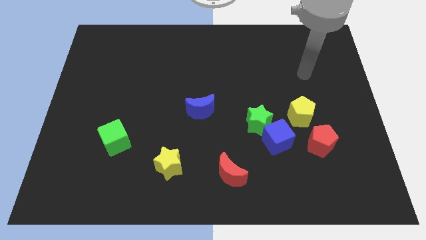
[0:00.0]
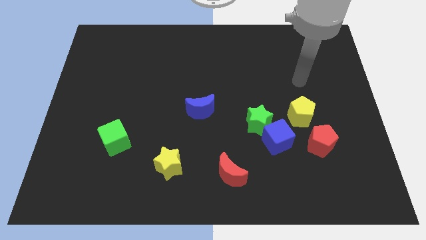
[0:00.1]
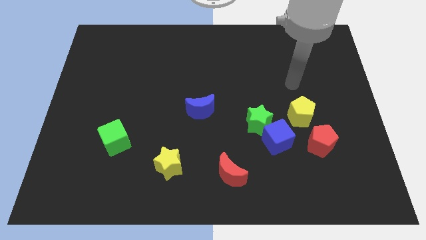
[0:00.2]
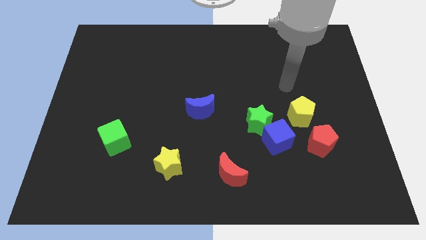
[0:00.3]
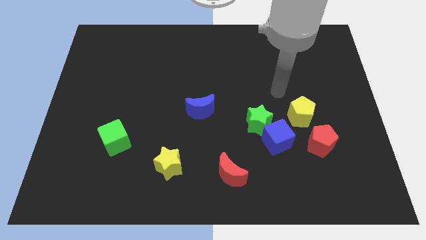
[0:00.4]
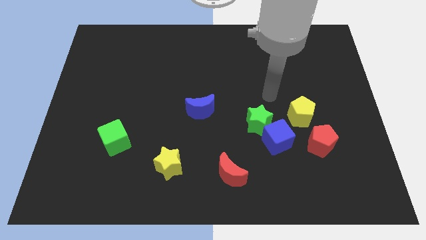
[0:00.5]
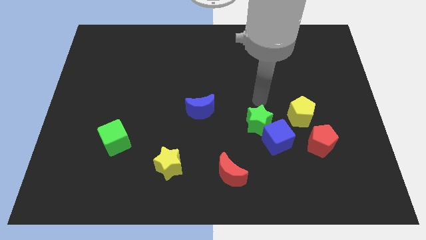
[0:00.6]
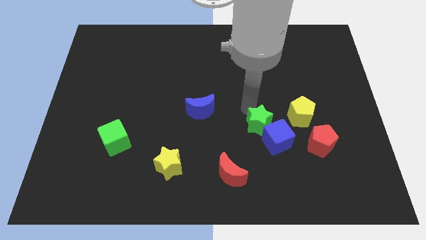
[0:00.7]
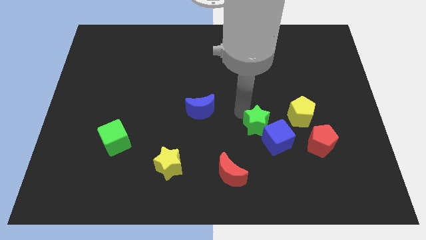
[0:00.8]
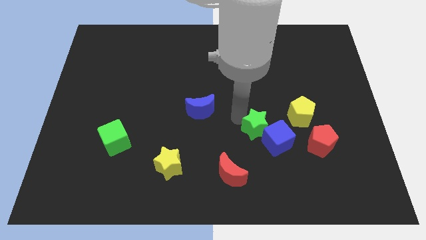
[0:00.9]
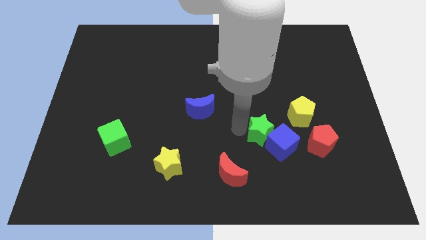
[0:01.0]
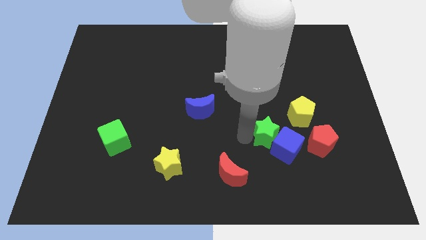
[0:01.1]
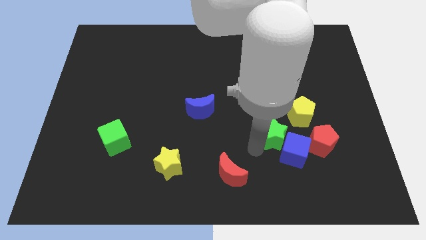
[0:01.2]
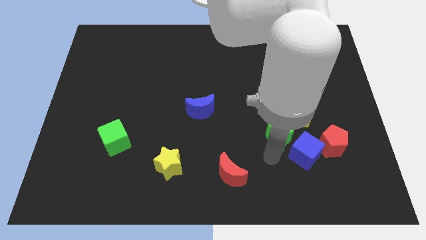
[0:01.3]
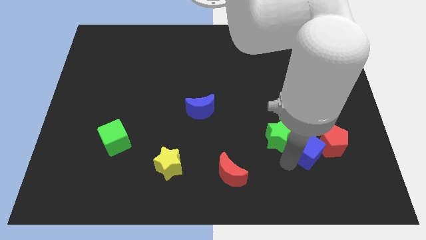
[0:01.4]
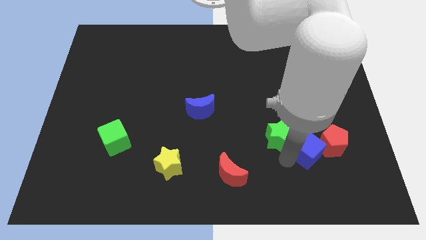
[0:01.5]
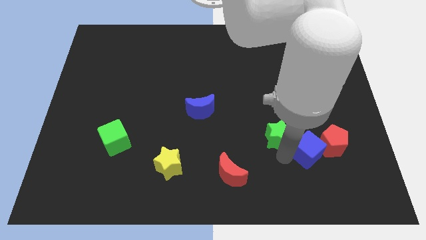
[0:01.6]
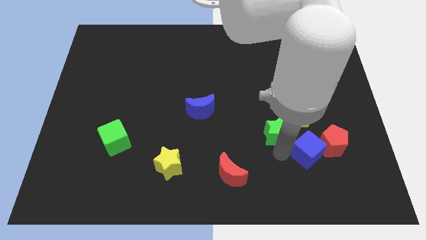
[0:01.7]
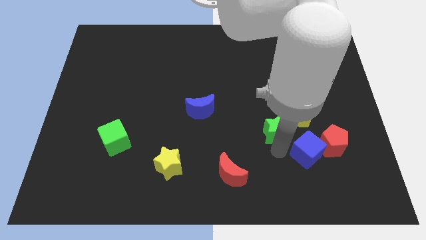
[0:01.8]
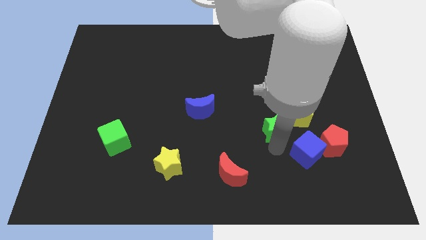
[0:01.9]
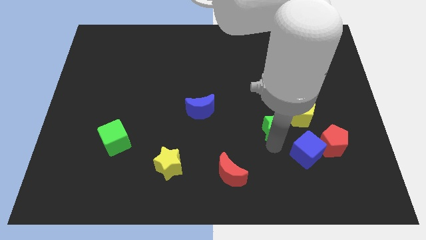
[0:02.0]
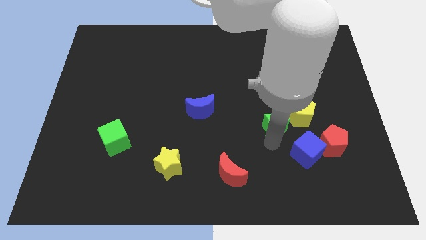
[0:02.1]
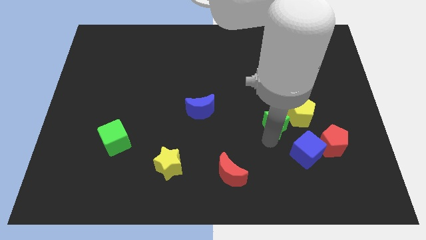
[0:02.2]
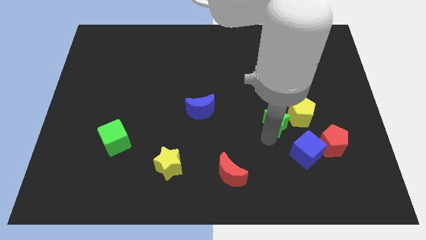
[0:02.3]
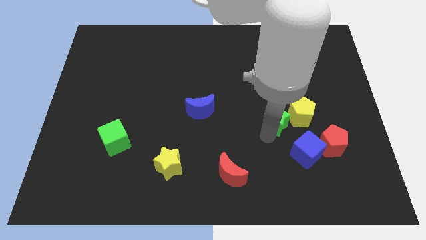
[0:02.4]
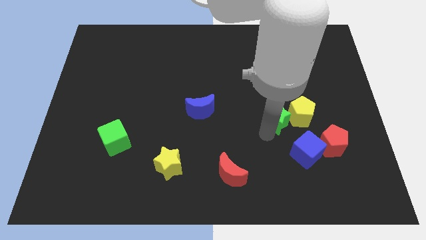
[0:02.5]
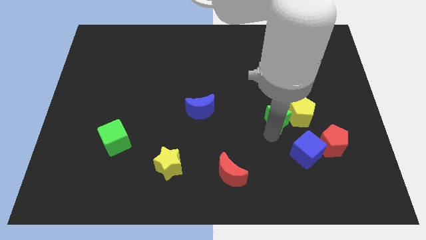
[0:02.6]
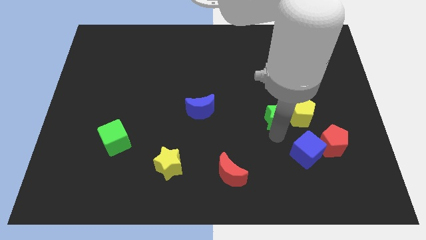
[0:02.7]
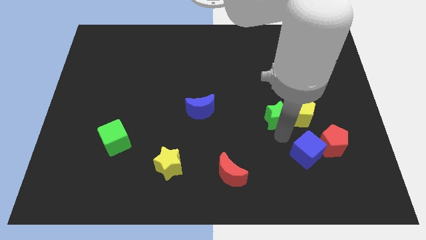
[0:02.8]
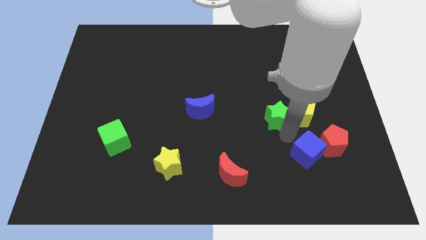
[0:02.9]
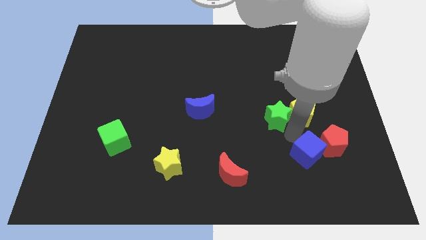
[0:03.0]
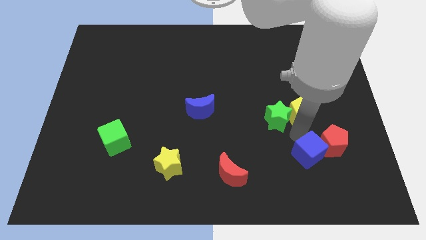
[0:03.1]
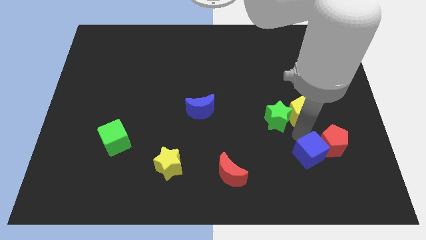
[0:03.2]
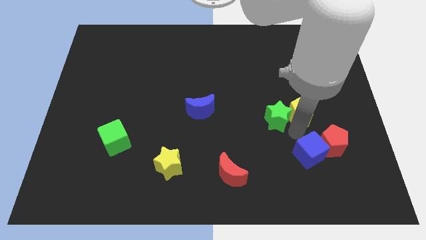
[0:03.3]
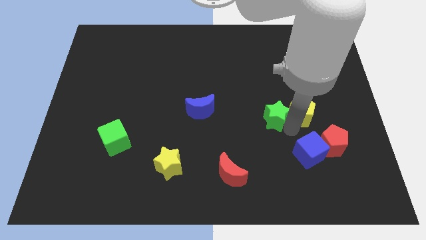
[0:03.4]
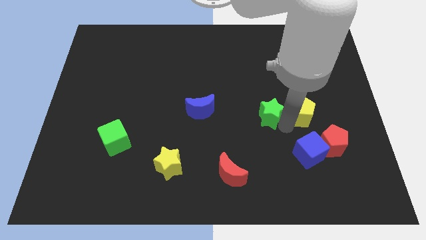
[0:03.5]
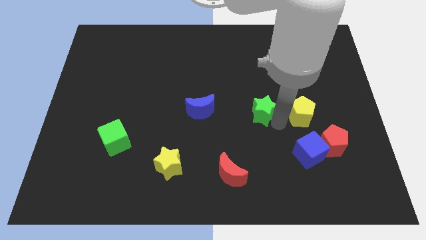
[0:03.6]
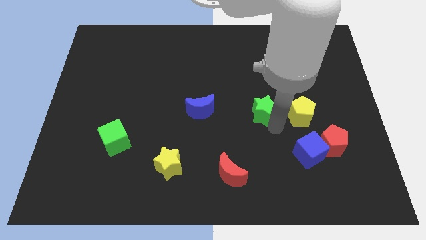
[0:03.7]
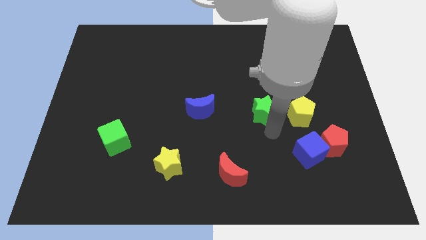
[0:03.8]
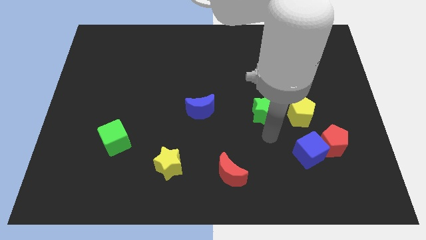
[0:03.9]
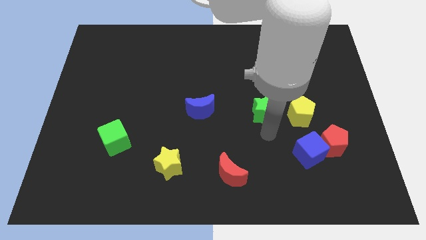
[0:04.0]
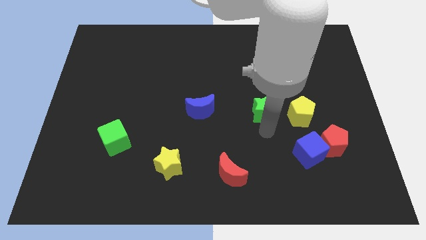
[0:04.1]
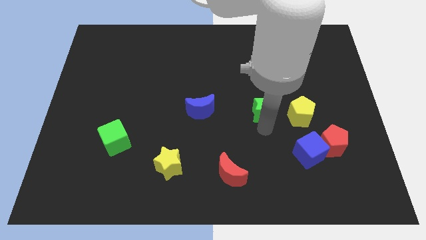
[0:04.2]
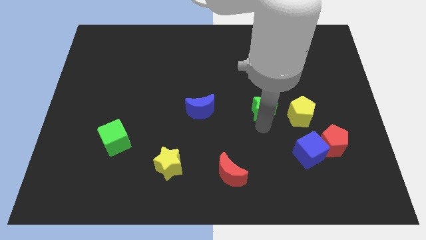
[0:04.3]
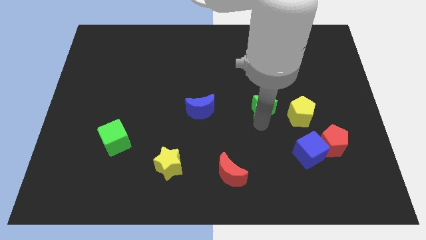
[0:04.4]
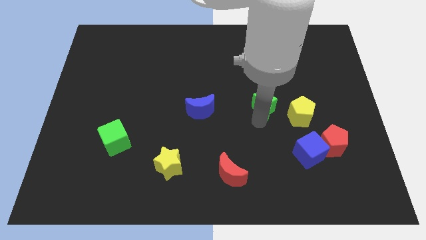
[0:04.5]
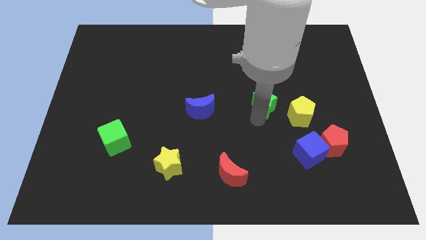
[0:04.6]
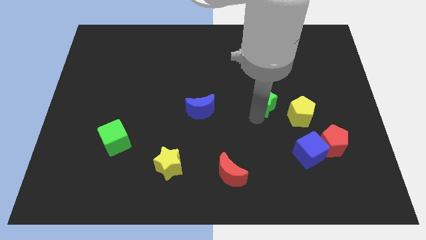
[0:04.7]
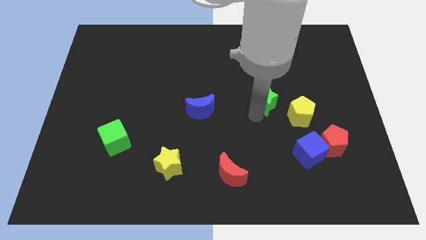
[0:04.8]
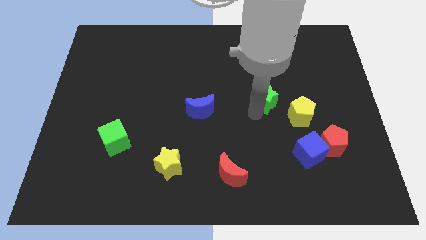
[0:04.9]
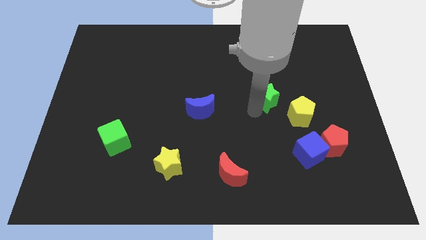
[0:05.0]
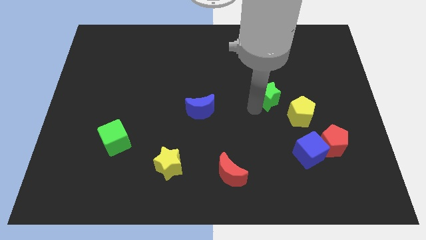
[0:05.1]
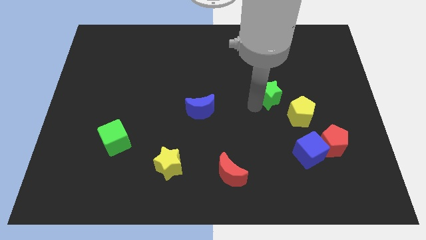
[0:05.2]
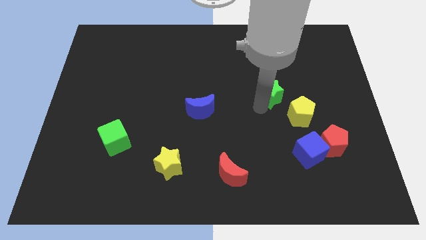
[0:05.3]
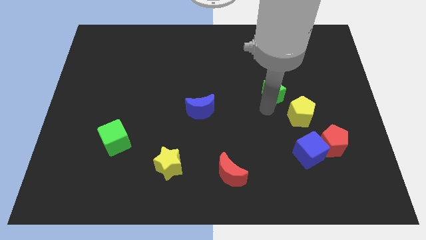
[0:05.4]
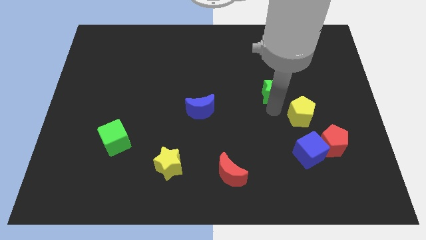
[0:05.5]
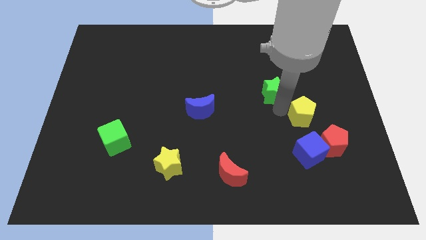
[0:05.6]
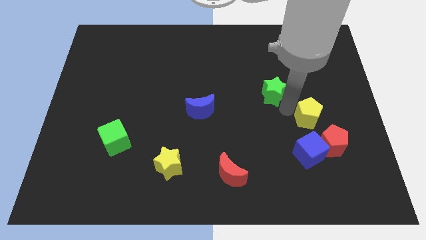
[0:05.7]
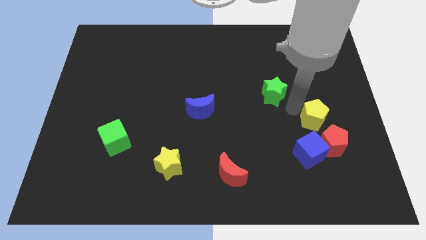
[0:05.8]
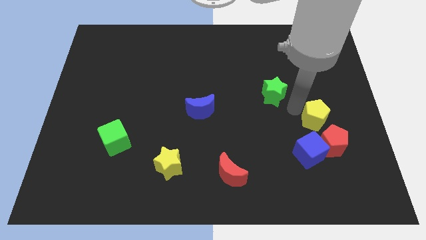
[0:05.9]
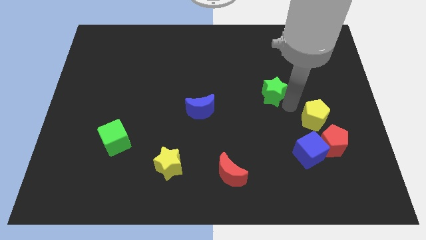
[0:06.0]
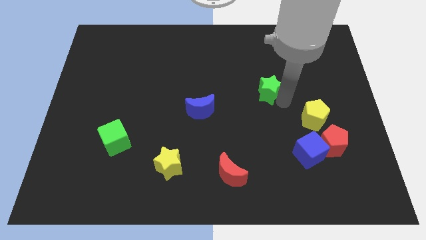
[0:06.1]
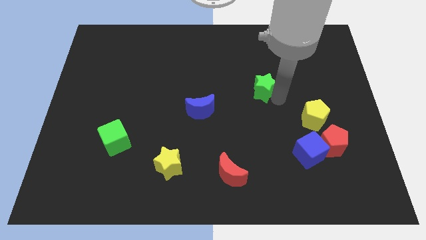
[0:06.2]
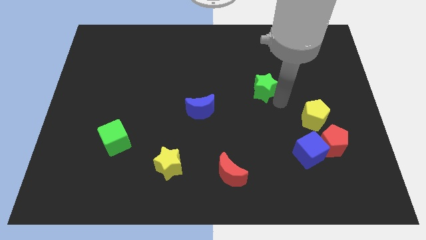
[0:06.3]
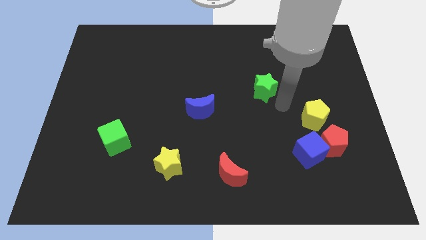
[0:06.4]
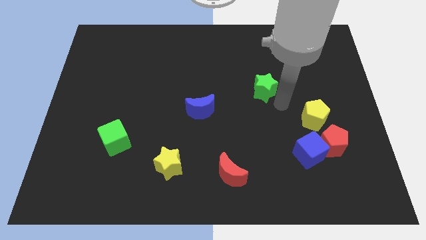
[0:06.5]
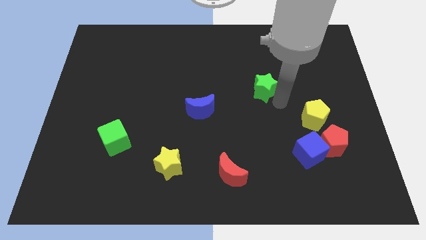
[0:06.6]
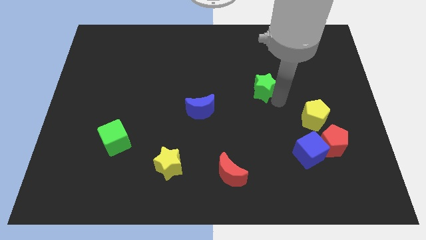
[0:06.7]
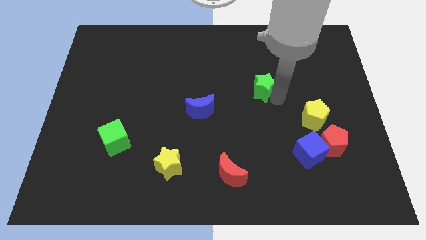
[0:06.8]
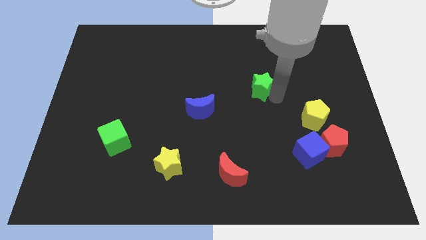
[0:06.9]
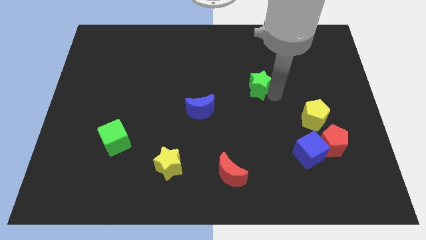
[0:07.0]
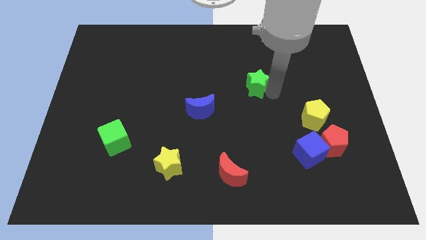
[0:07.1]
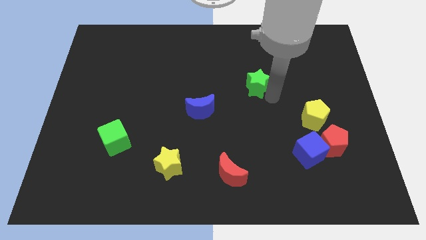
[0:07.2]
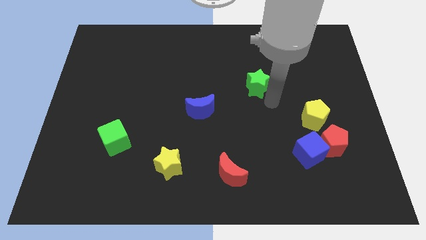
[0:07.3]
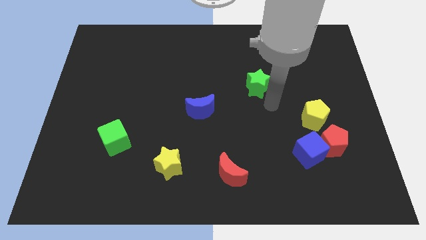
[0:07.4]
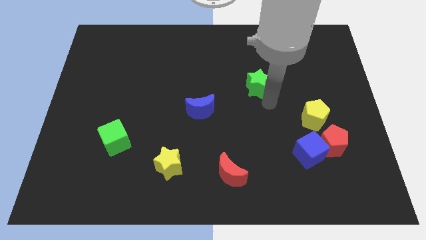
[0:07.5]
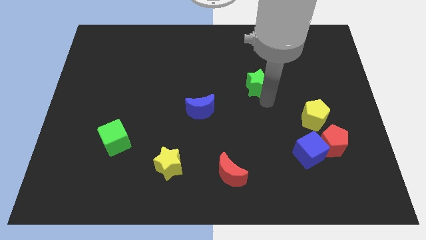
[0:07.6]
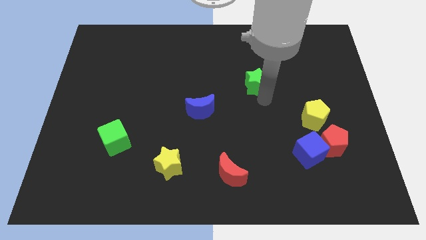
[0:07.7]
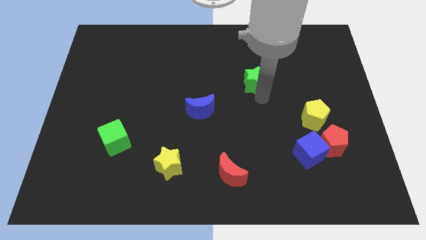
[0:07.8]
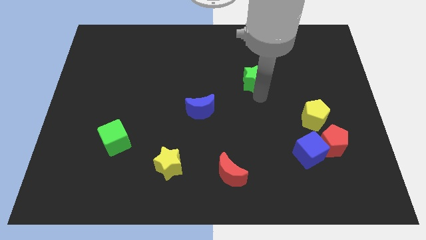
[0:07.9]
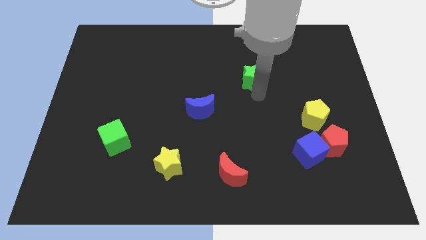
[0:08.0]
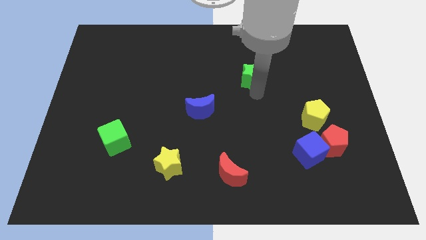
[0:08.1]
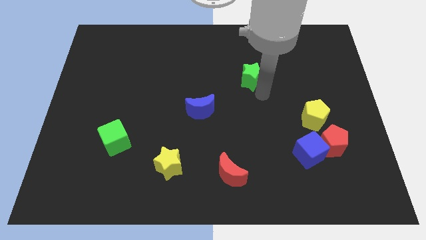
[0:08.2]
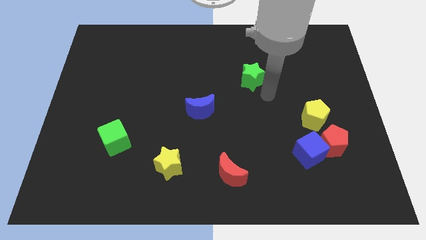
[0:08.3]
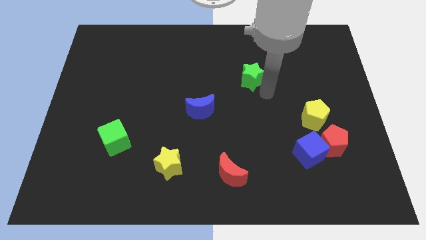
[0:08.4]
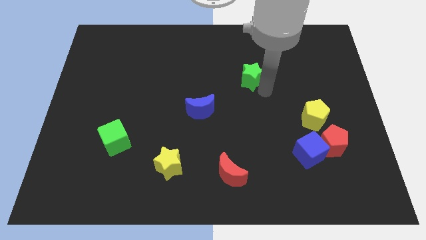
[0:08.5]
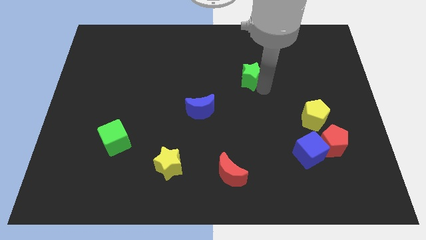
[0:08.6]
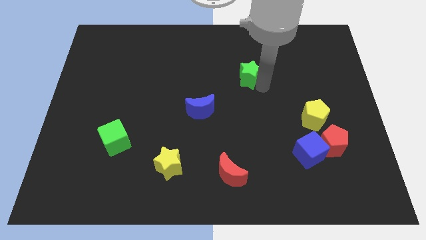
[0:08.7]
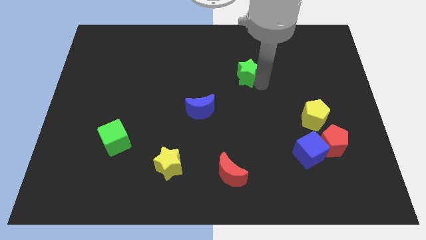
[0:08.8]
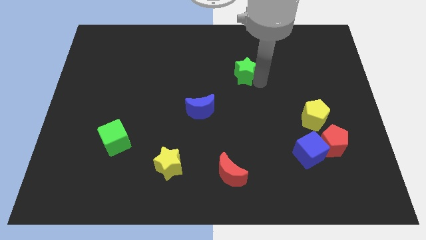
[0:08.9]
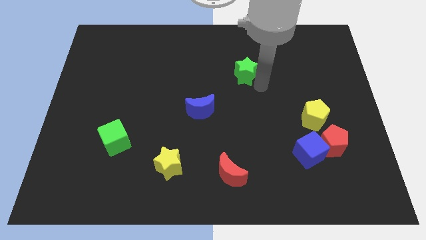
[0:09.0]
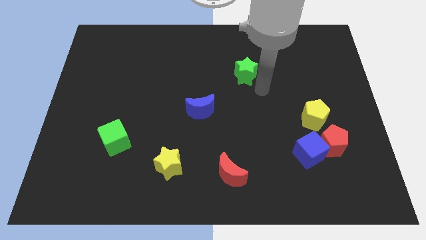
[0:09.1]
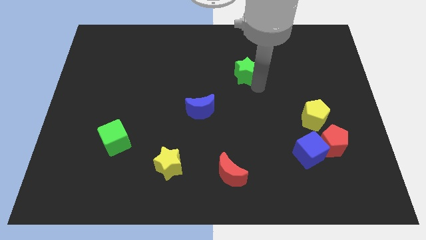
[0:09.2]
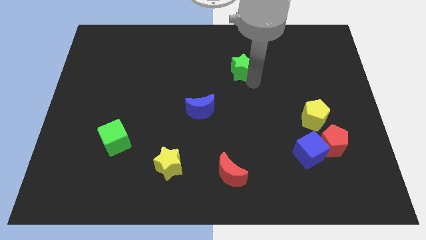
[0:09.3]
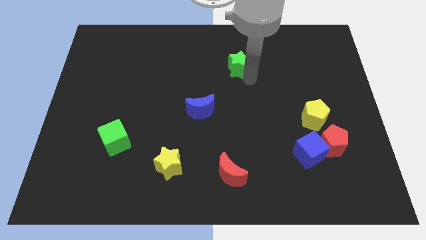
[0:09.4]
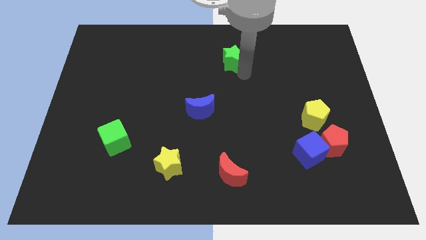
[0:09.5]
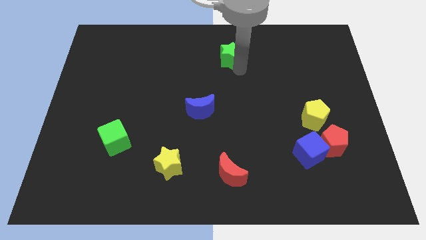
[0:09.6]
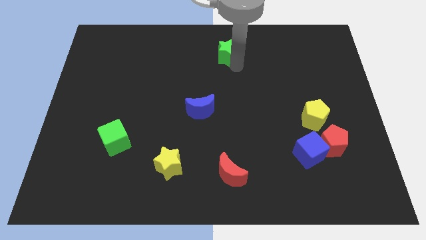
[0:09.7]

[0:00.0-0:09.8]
move the green star to the top side
